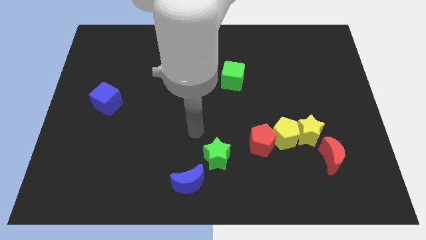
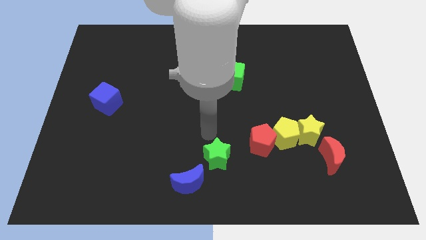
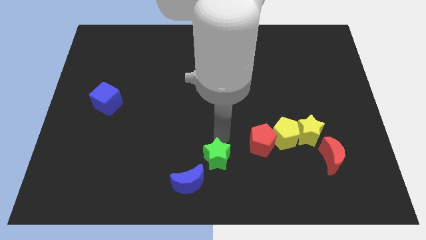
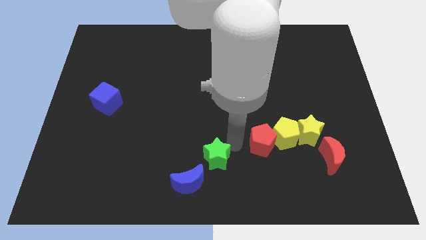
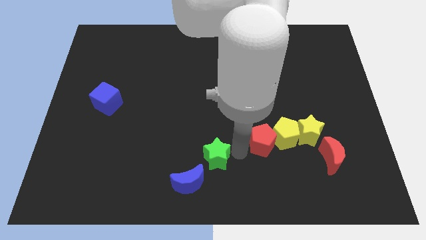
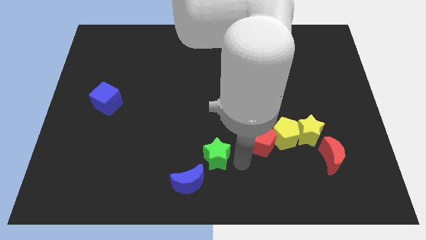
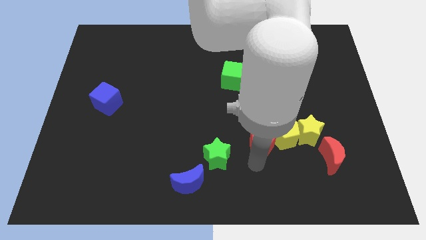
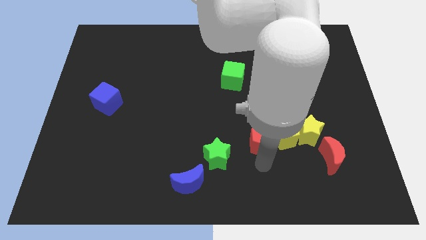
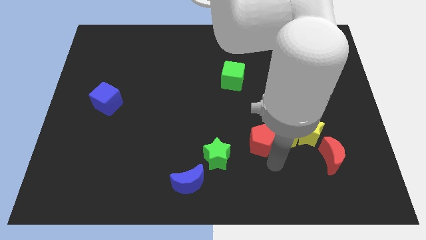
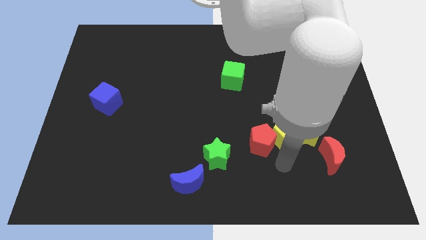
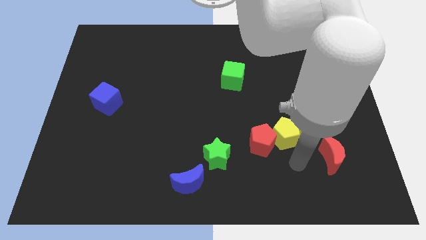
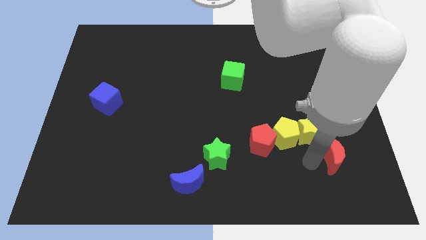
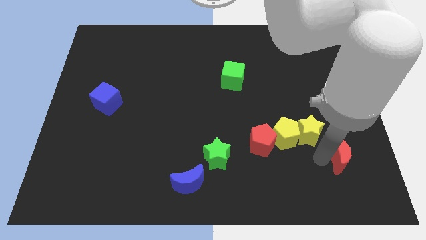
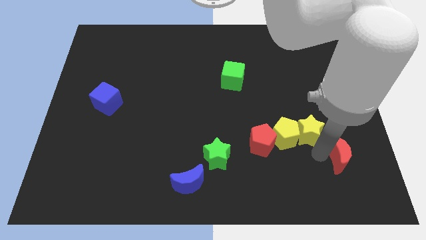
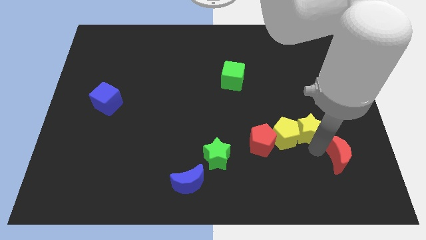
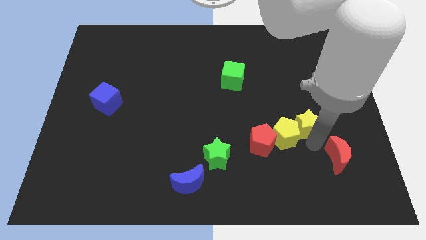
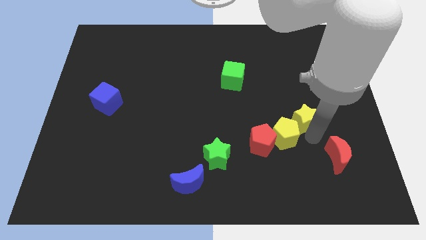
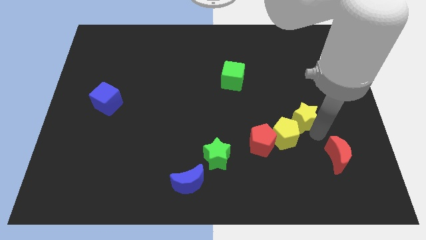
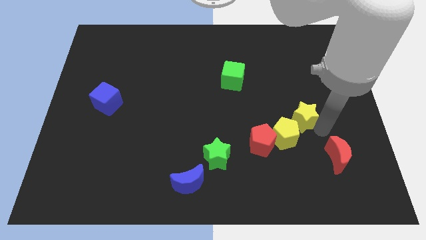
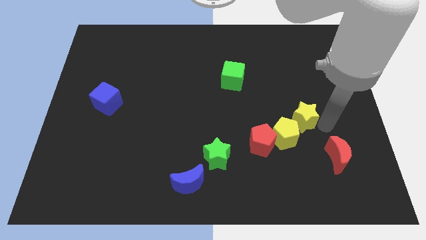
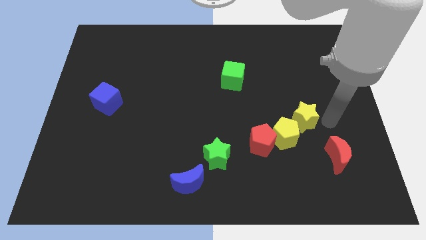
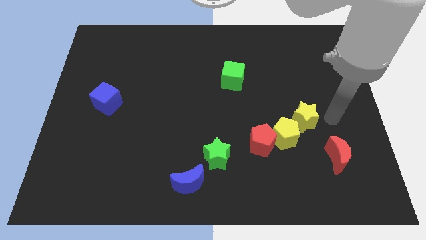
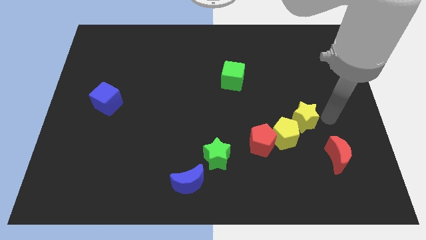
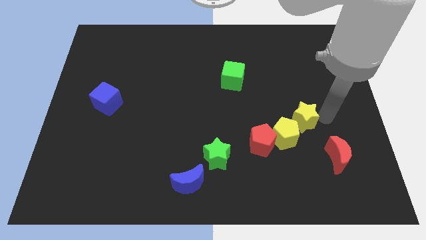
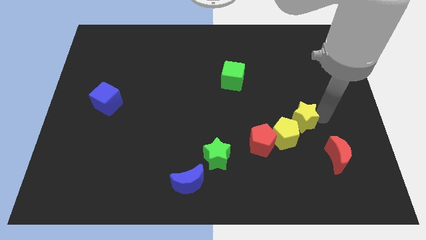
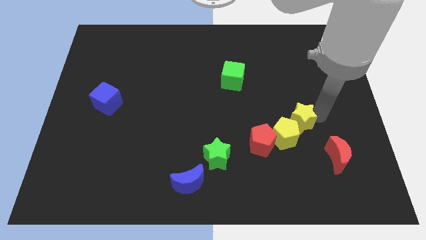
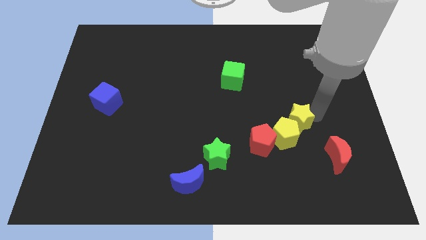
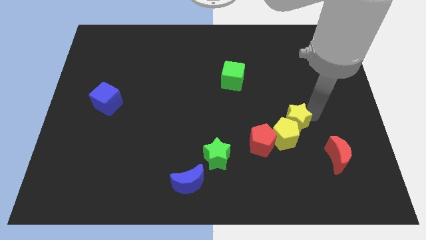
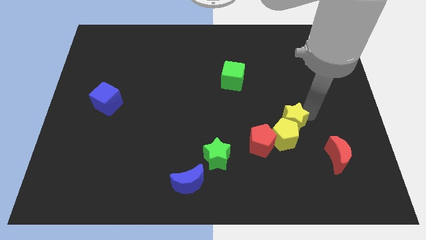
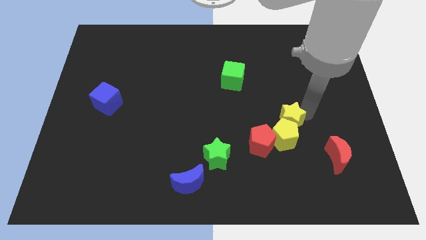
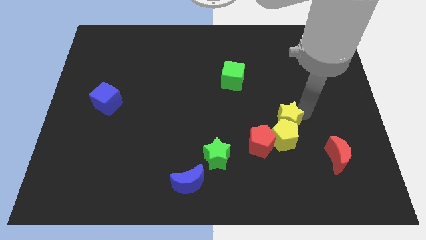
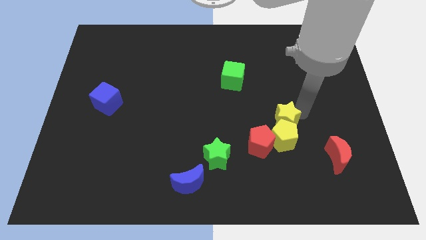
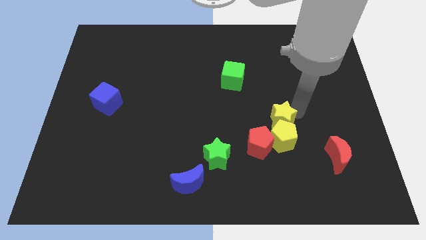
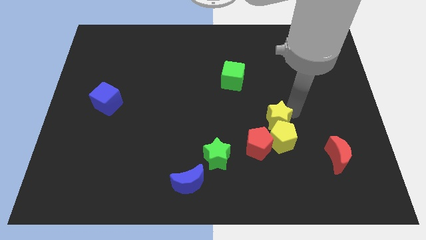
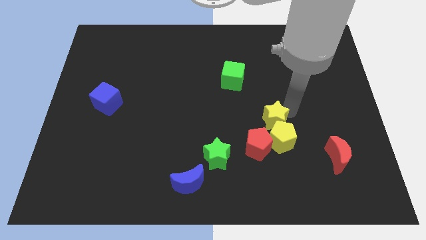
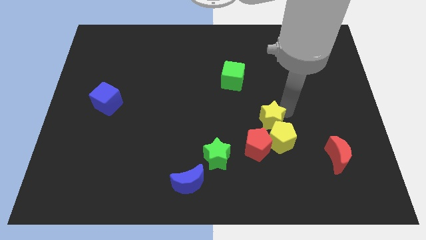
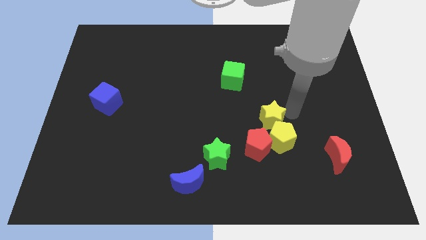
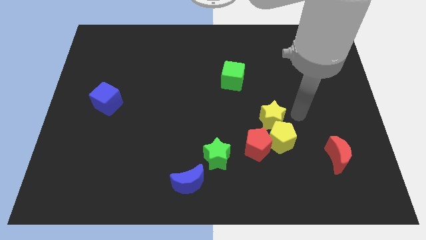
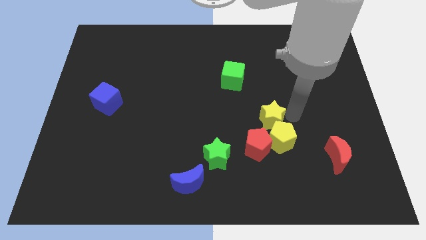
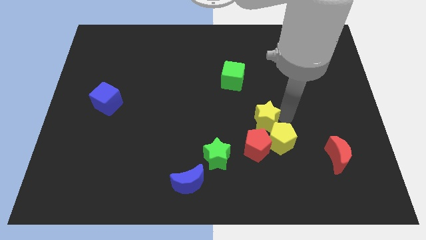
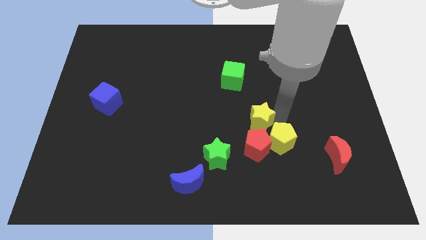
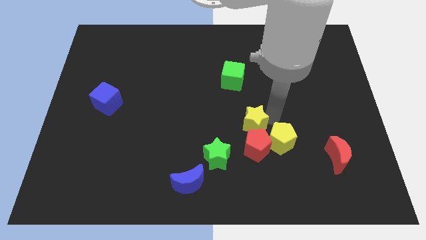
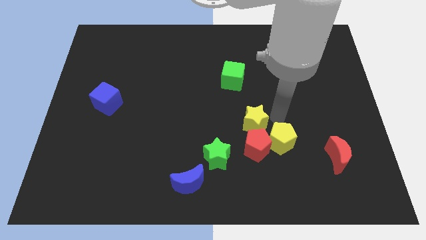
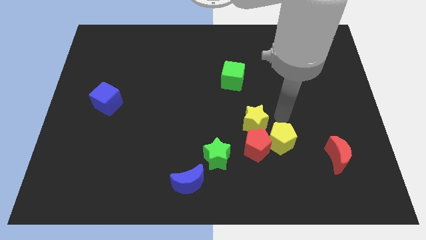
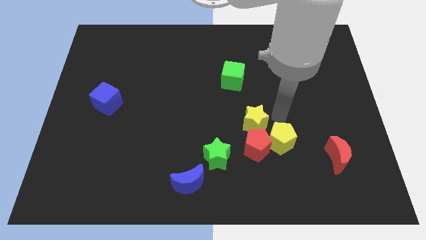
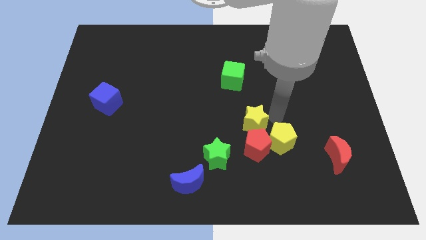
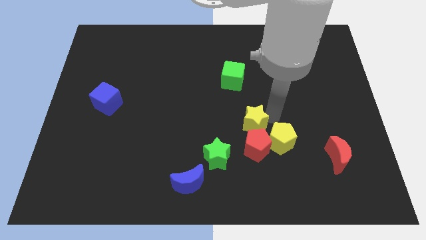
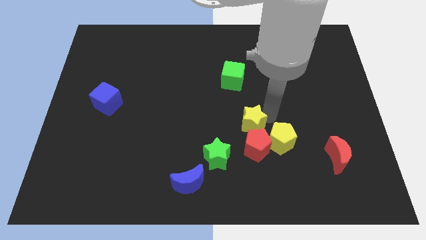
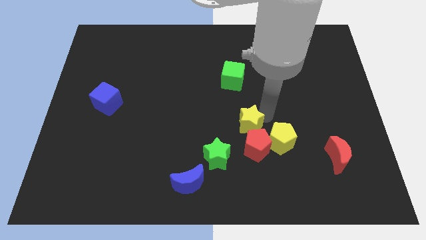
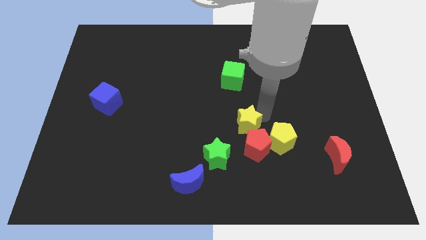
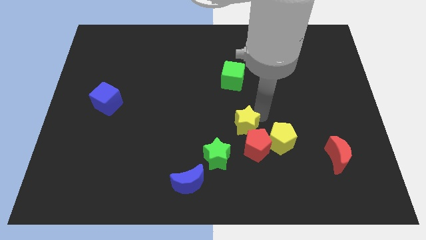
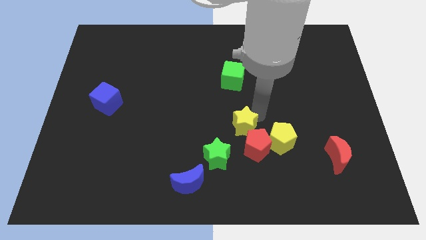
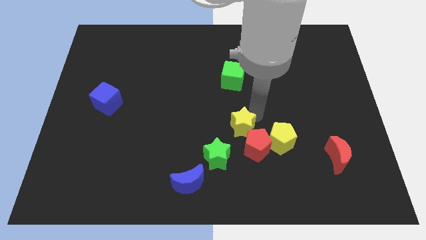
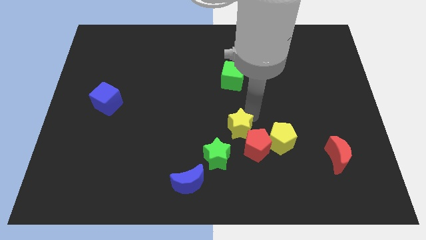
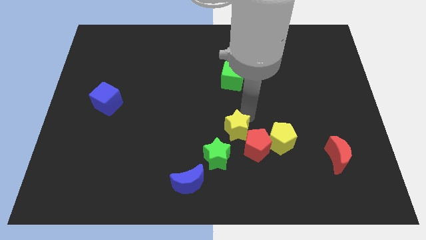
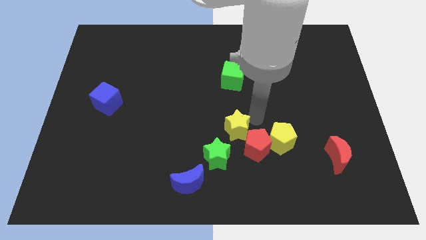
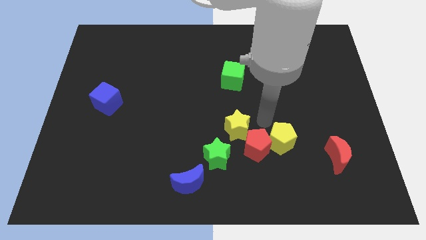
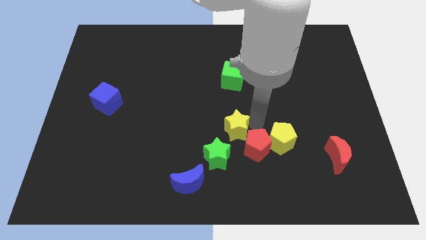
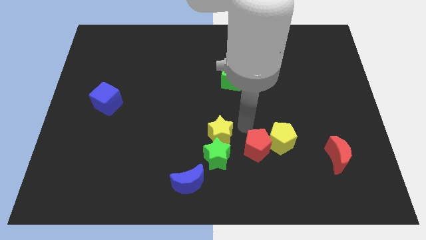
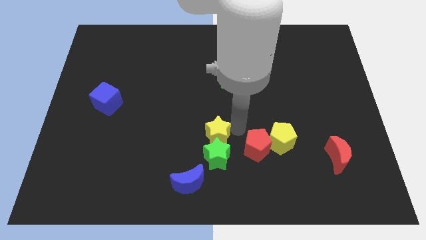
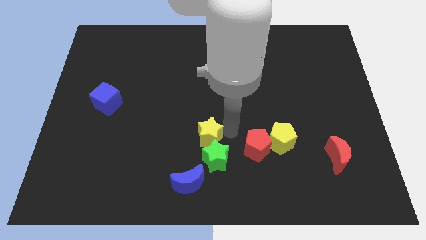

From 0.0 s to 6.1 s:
push the yellow star above the blue moon
